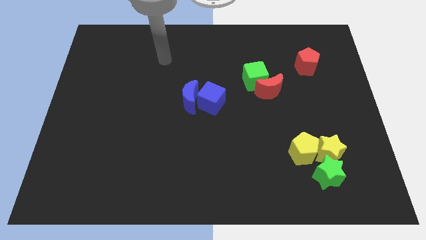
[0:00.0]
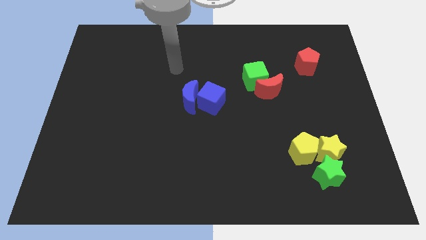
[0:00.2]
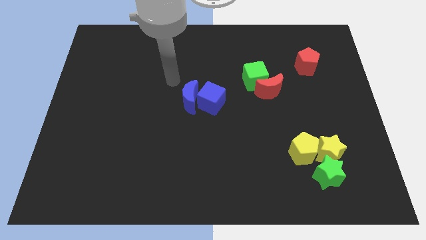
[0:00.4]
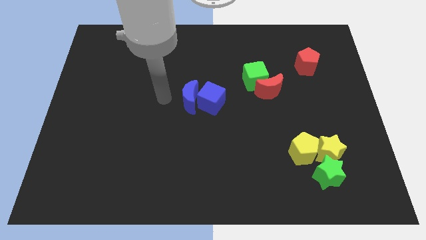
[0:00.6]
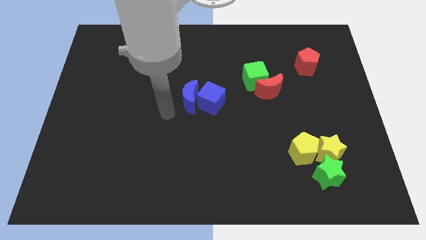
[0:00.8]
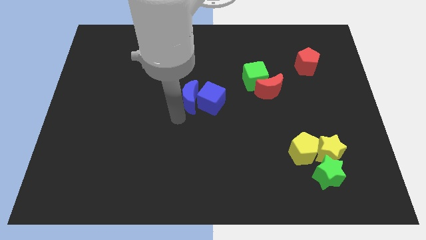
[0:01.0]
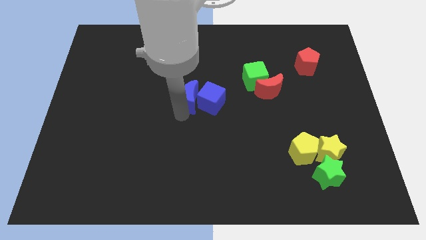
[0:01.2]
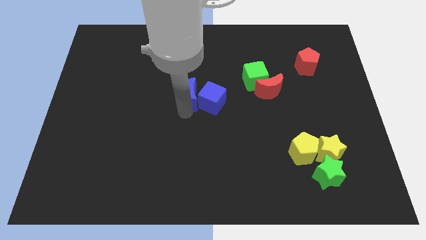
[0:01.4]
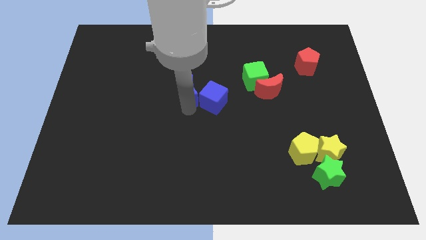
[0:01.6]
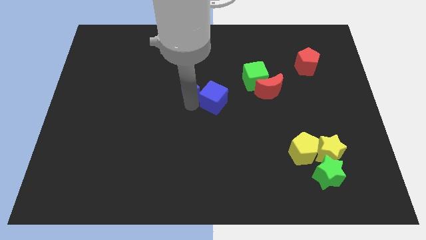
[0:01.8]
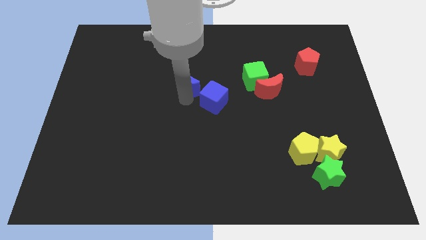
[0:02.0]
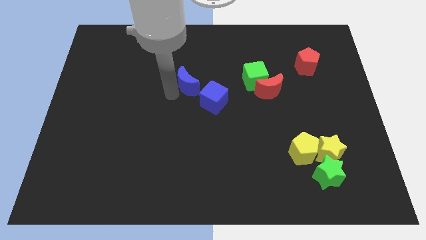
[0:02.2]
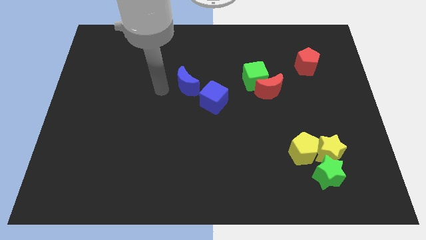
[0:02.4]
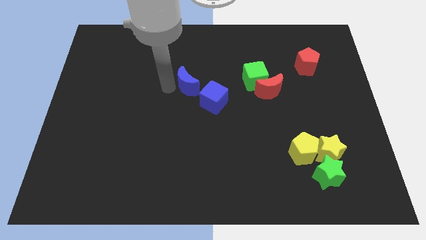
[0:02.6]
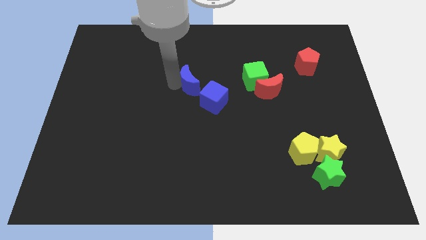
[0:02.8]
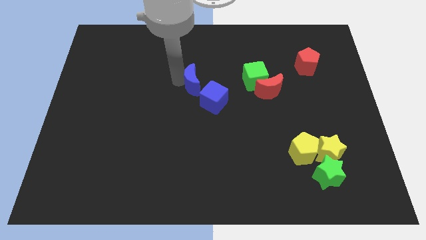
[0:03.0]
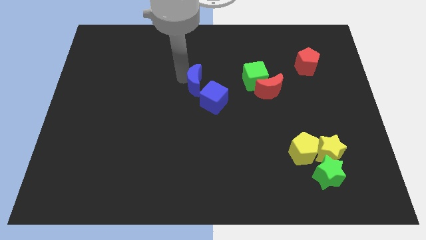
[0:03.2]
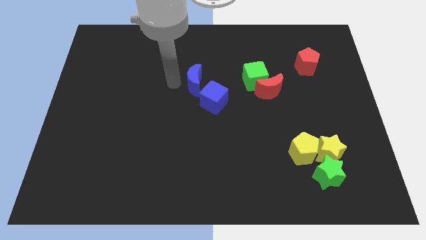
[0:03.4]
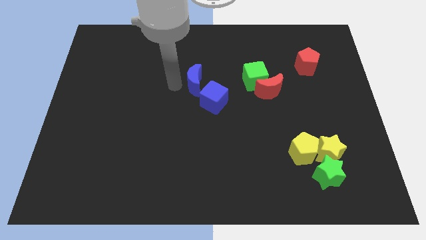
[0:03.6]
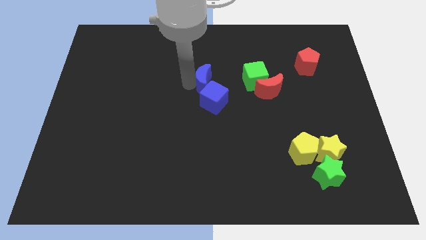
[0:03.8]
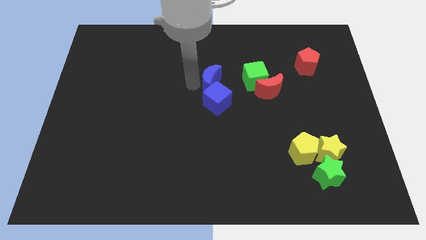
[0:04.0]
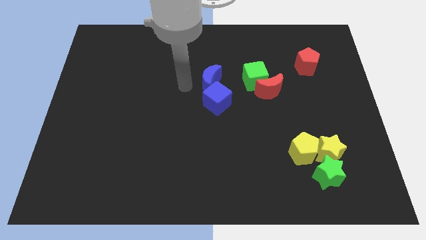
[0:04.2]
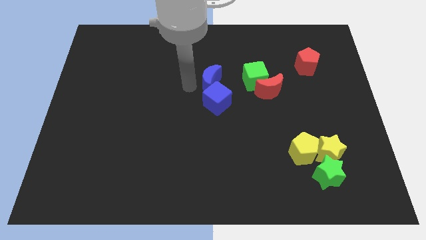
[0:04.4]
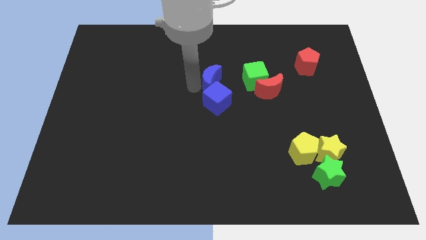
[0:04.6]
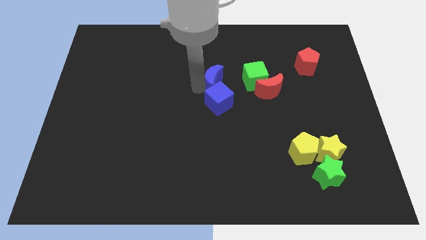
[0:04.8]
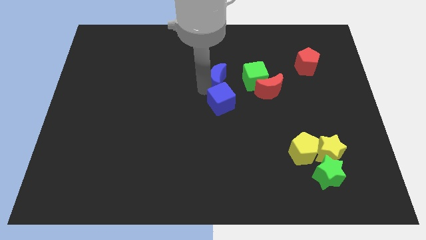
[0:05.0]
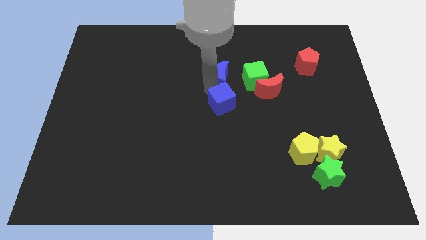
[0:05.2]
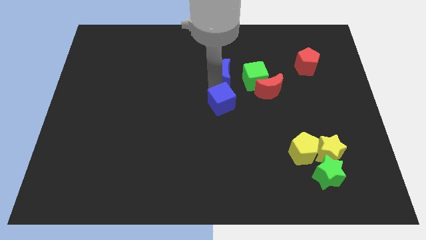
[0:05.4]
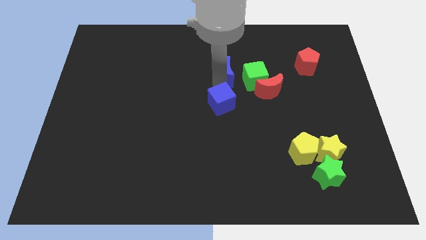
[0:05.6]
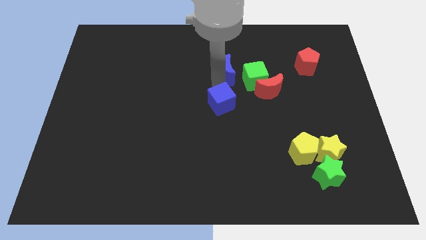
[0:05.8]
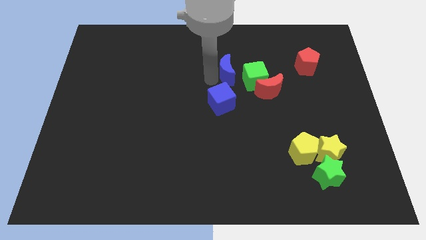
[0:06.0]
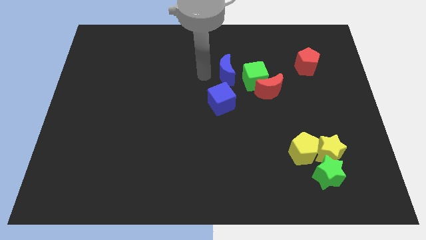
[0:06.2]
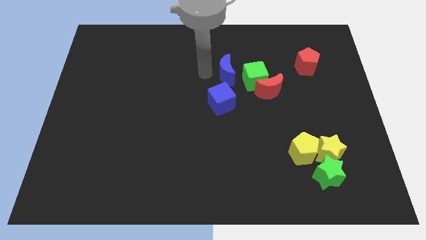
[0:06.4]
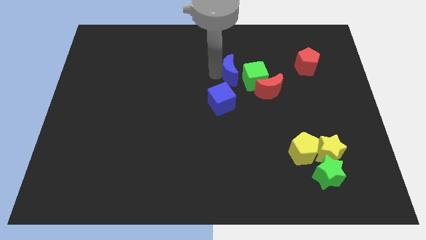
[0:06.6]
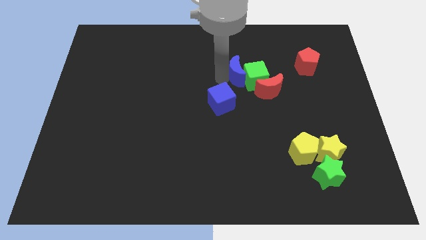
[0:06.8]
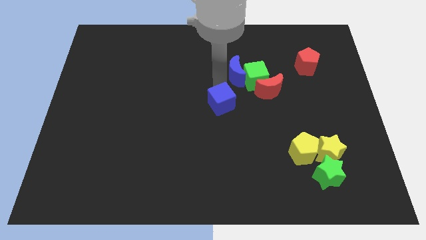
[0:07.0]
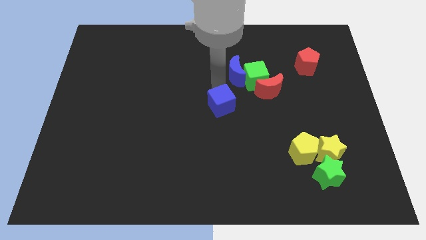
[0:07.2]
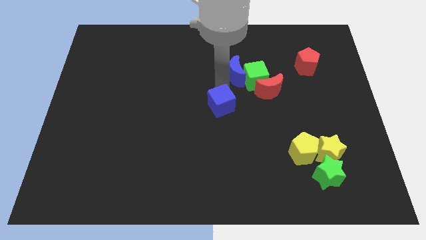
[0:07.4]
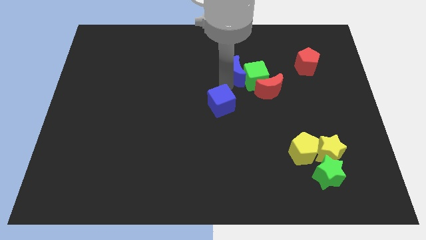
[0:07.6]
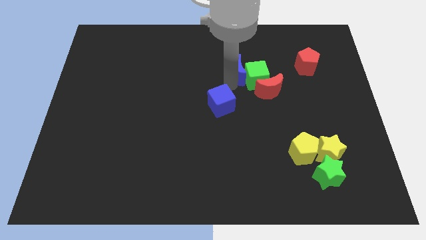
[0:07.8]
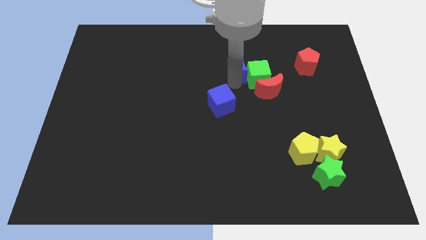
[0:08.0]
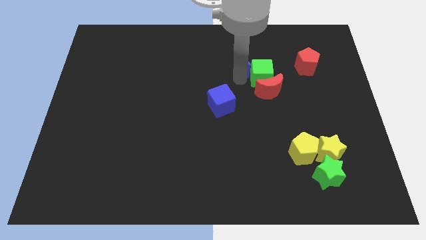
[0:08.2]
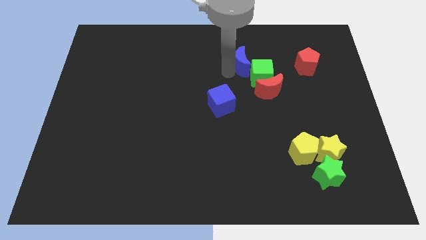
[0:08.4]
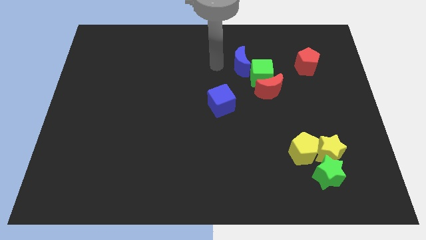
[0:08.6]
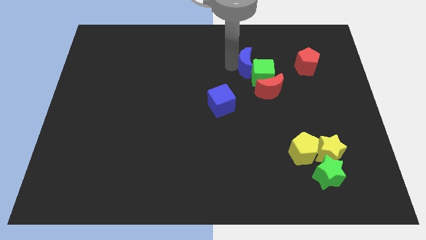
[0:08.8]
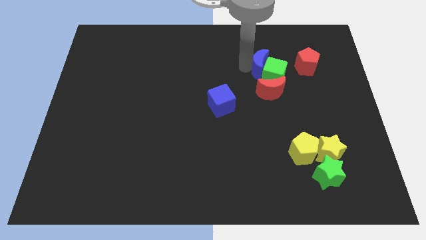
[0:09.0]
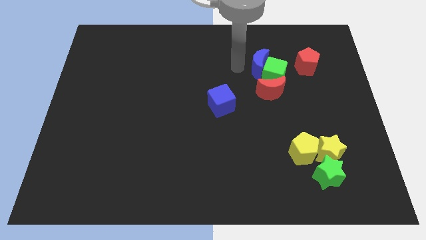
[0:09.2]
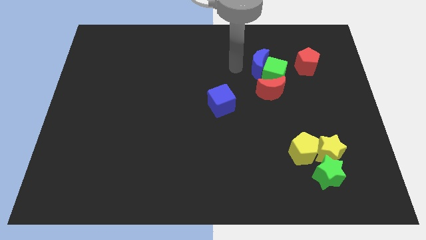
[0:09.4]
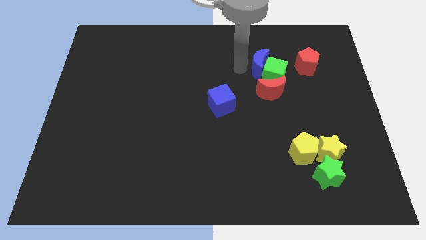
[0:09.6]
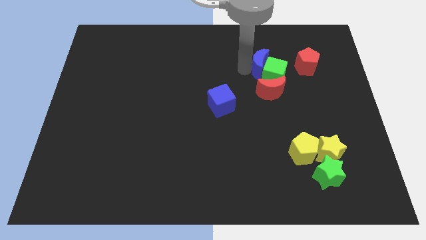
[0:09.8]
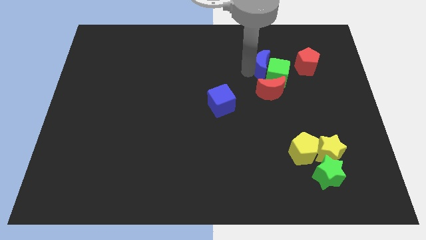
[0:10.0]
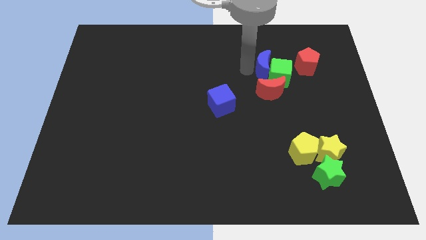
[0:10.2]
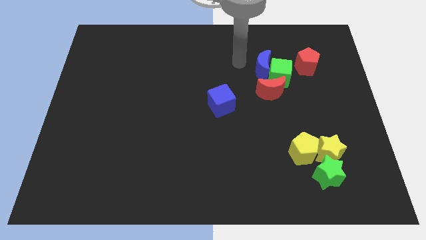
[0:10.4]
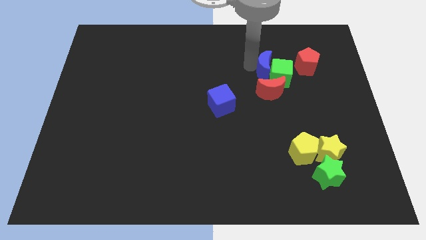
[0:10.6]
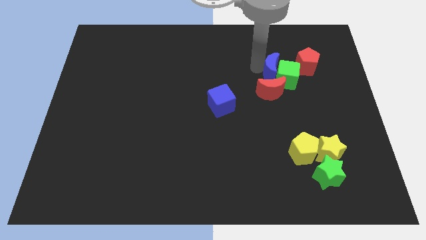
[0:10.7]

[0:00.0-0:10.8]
push the blue moon diagonally up and to the right of the red moon

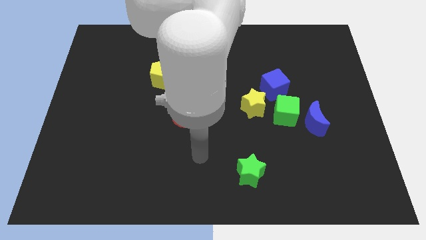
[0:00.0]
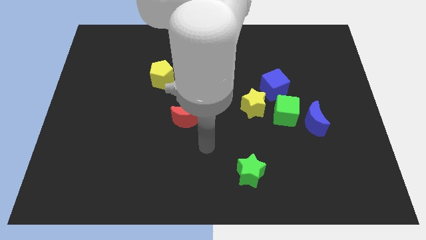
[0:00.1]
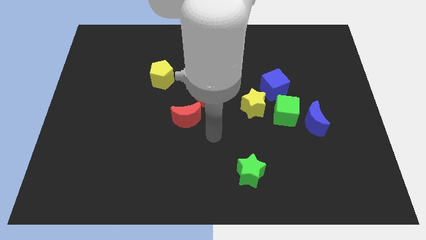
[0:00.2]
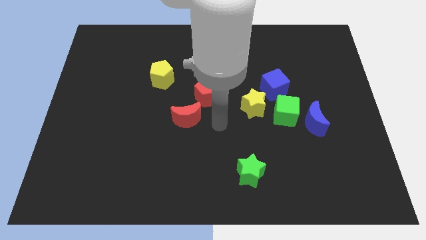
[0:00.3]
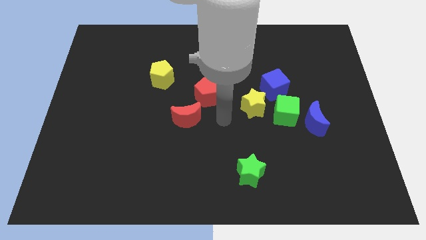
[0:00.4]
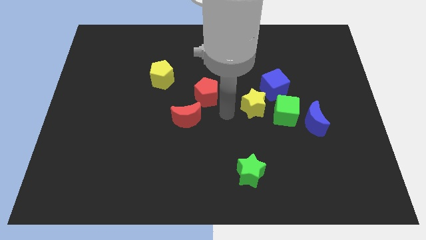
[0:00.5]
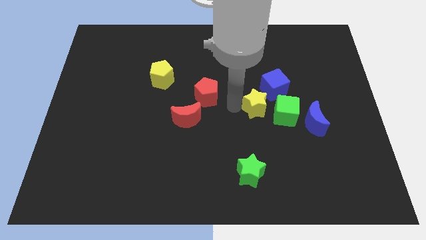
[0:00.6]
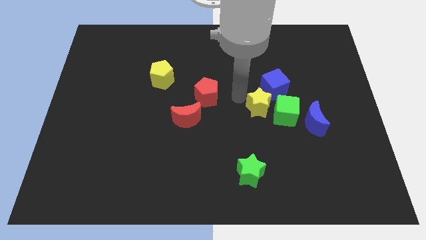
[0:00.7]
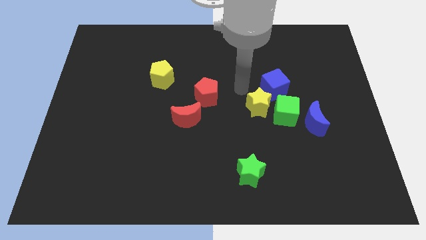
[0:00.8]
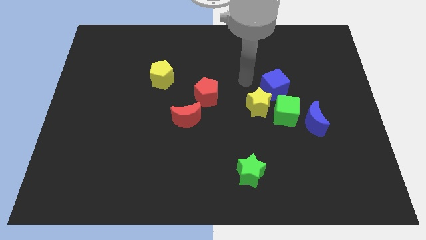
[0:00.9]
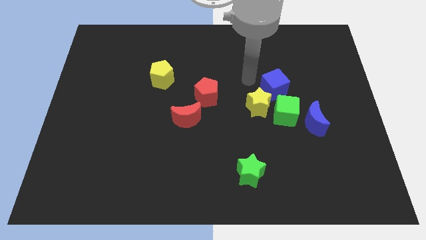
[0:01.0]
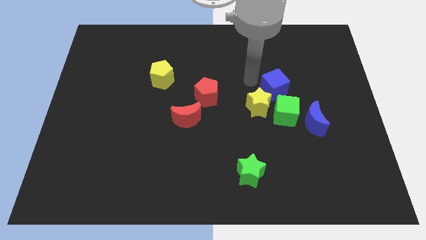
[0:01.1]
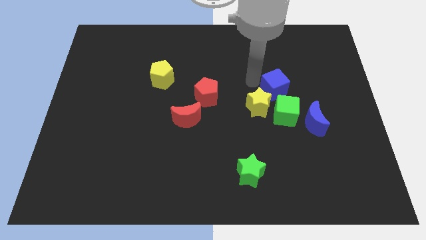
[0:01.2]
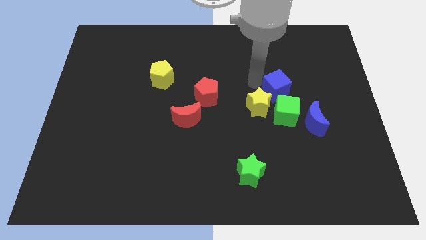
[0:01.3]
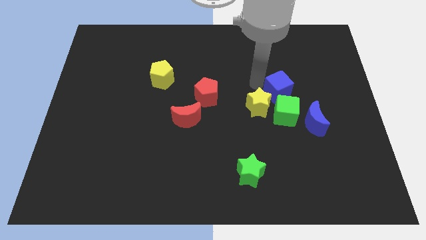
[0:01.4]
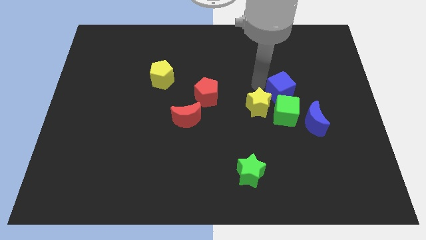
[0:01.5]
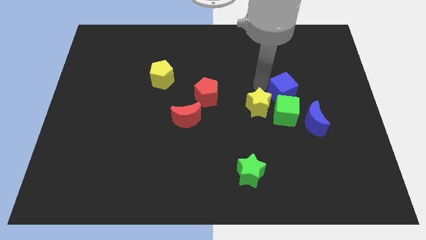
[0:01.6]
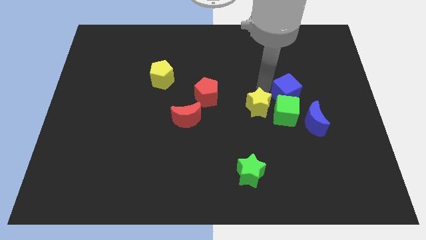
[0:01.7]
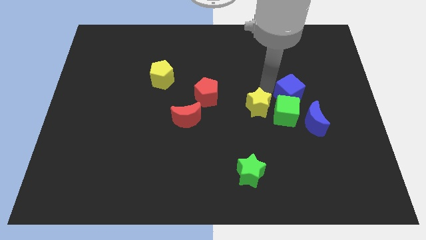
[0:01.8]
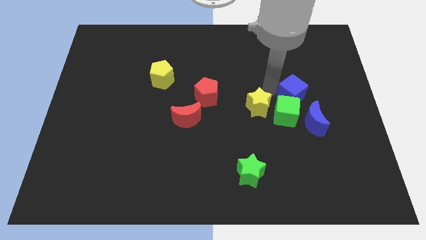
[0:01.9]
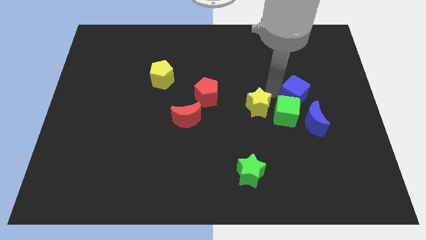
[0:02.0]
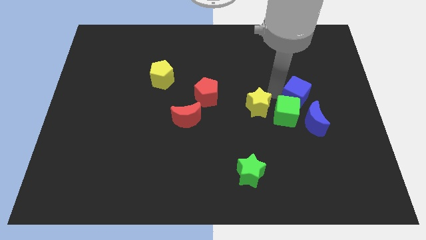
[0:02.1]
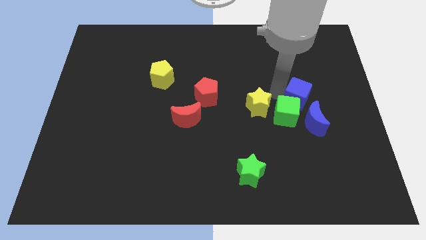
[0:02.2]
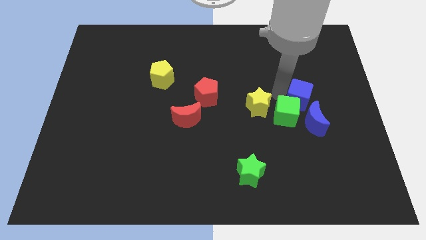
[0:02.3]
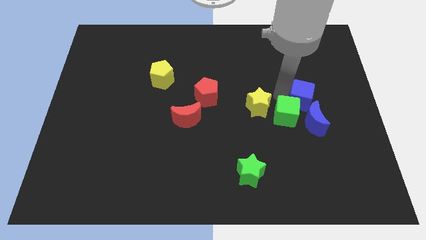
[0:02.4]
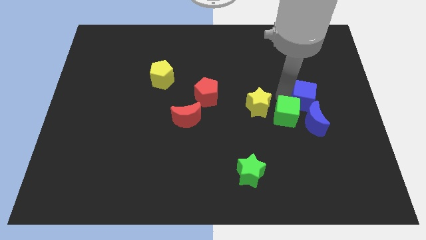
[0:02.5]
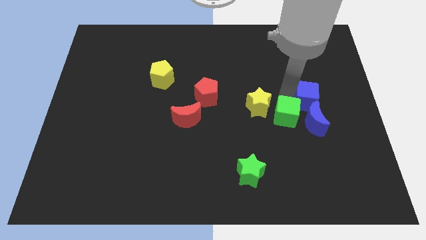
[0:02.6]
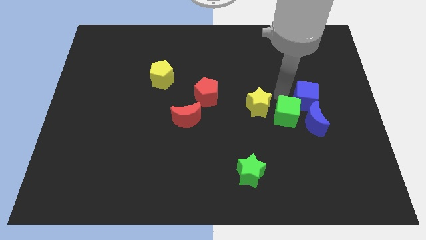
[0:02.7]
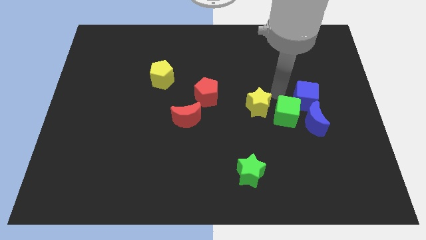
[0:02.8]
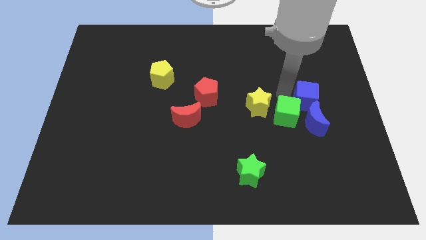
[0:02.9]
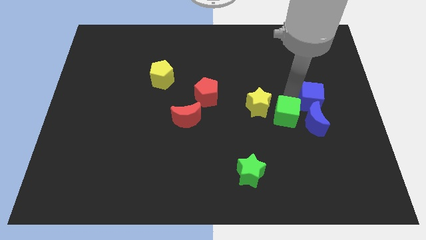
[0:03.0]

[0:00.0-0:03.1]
push the blue cube diagonally up and to the right of the blue moon
